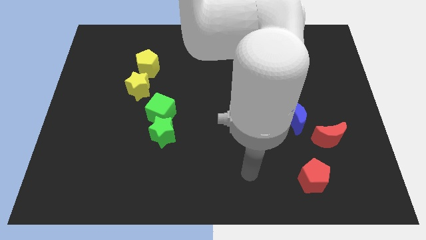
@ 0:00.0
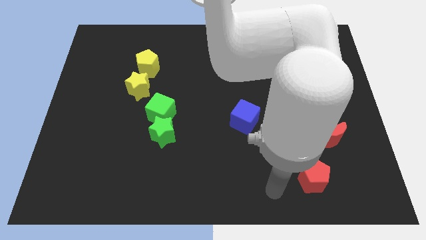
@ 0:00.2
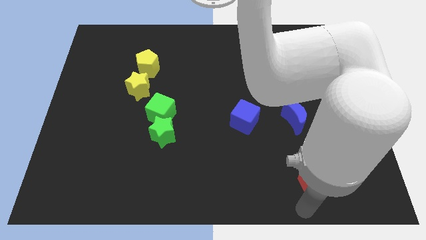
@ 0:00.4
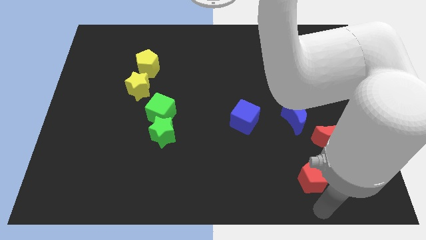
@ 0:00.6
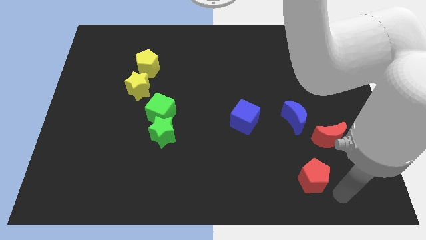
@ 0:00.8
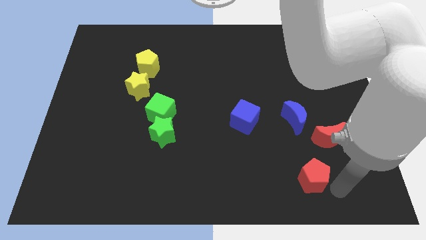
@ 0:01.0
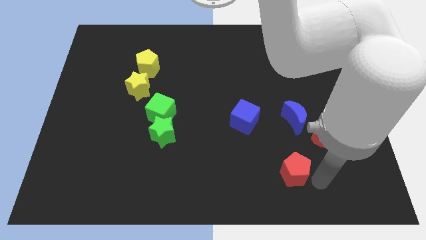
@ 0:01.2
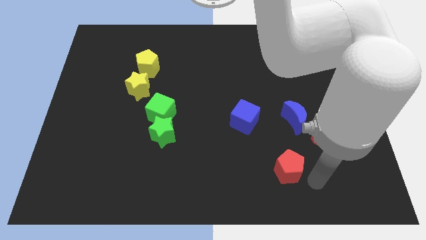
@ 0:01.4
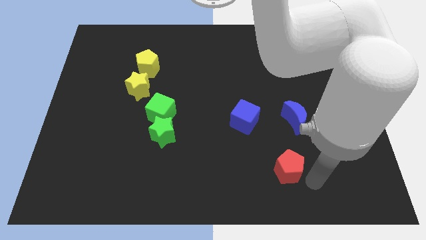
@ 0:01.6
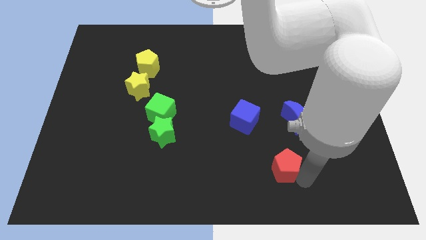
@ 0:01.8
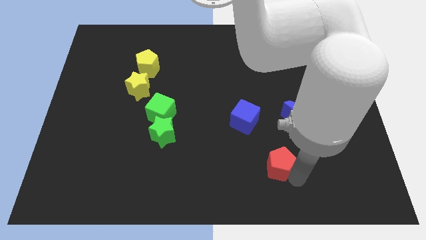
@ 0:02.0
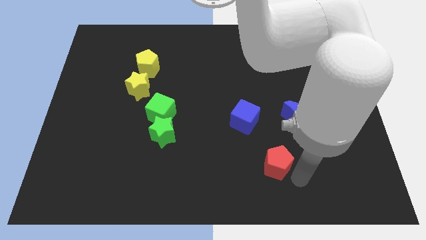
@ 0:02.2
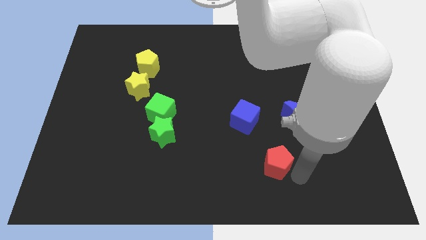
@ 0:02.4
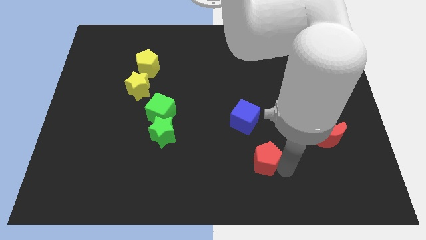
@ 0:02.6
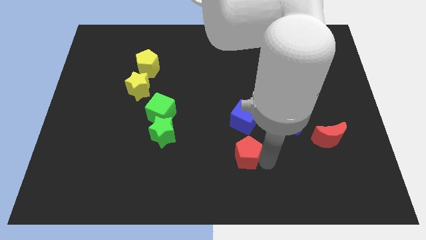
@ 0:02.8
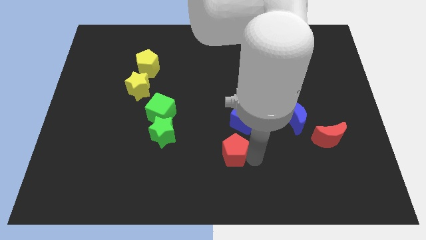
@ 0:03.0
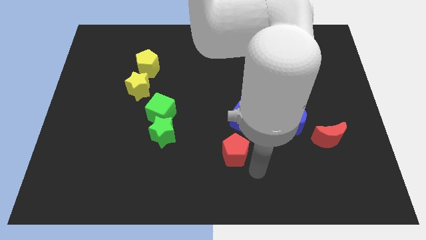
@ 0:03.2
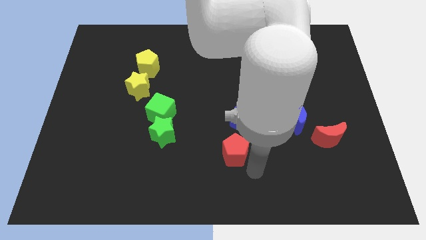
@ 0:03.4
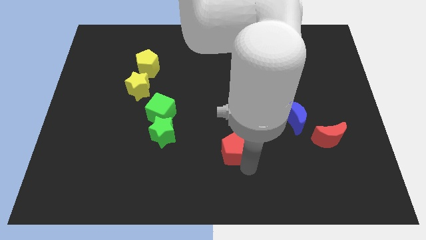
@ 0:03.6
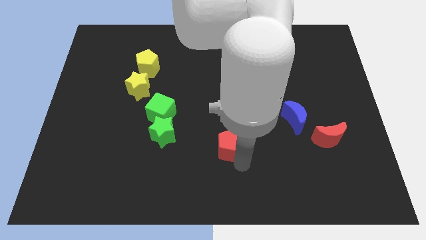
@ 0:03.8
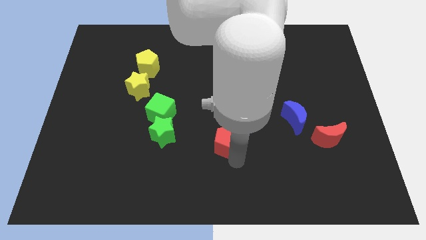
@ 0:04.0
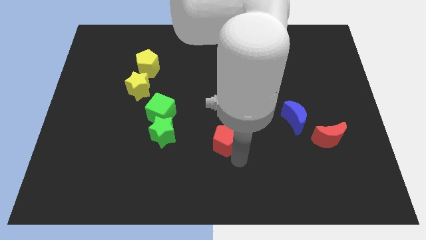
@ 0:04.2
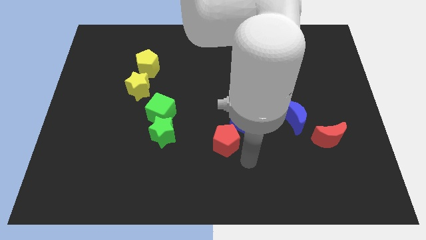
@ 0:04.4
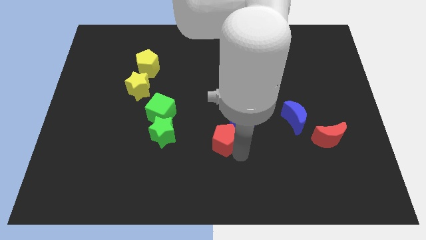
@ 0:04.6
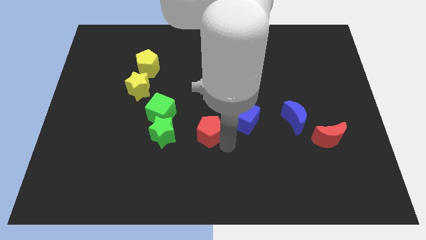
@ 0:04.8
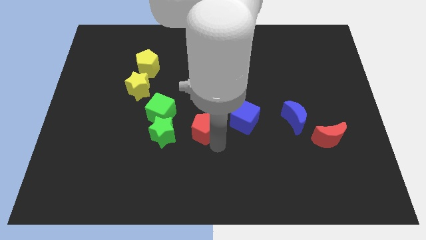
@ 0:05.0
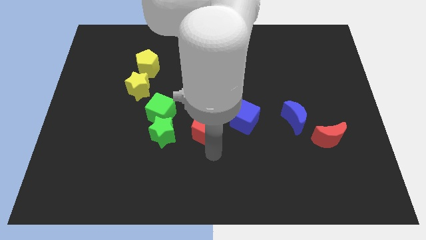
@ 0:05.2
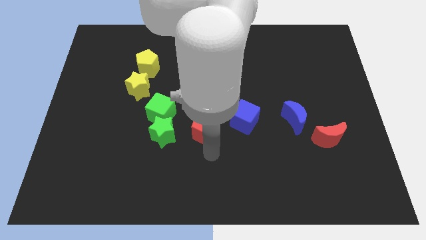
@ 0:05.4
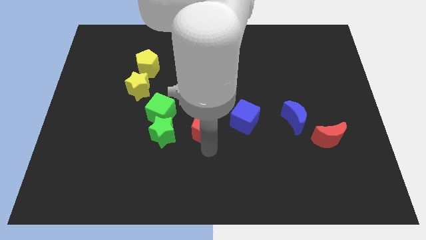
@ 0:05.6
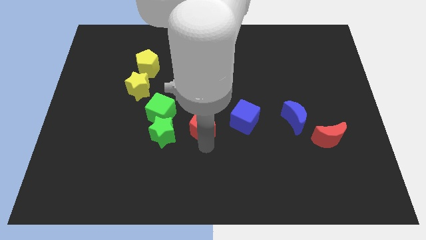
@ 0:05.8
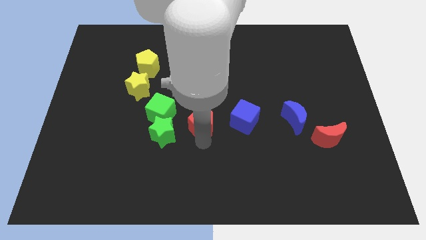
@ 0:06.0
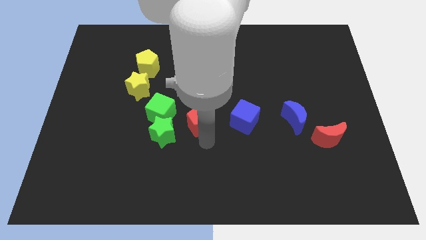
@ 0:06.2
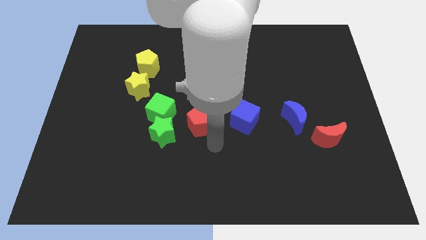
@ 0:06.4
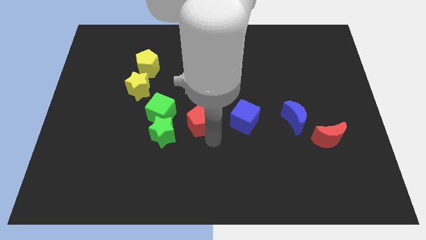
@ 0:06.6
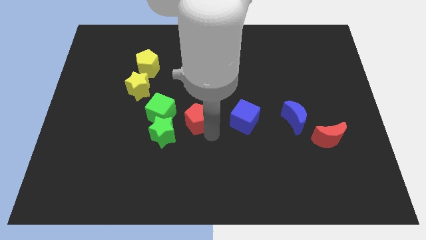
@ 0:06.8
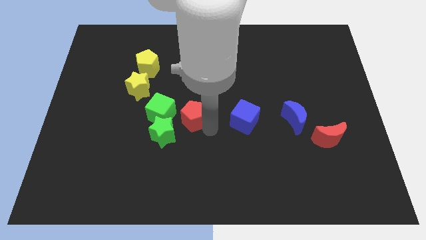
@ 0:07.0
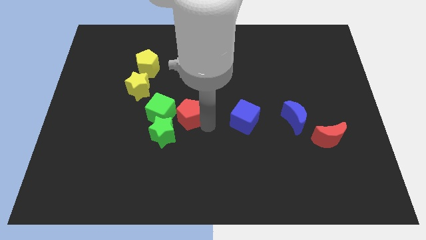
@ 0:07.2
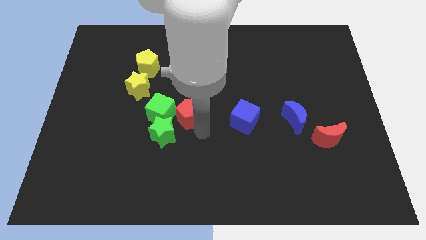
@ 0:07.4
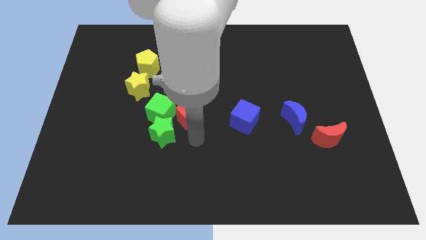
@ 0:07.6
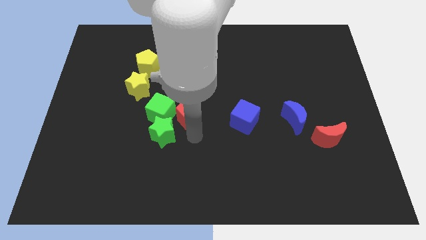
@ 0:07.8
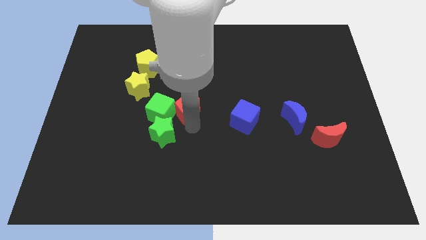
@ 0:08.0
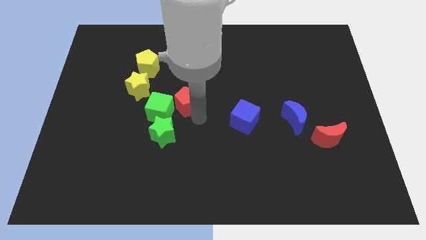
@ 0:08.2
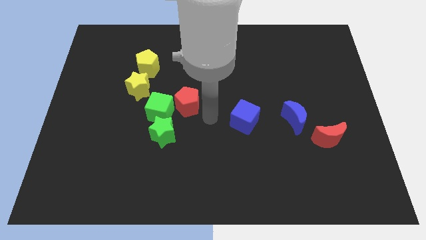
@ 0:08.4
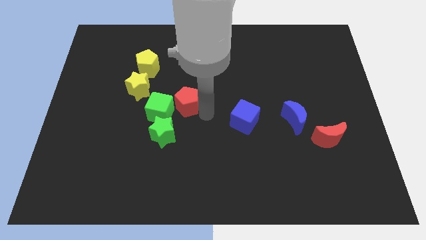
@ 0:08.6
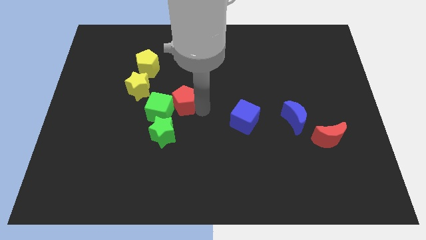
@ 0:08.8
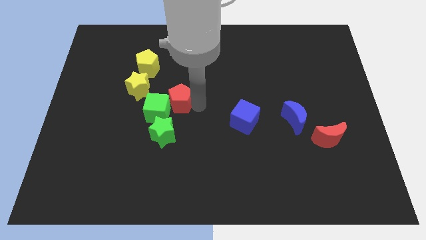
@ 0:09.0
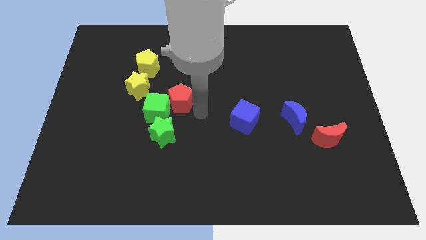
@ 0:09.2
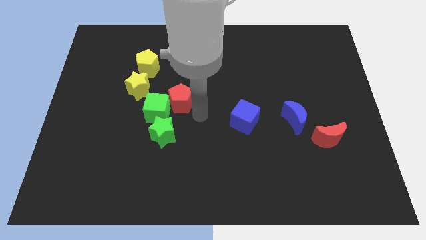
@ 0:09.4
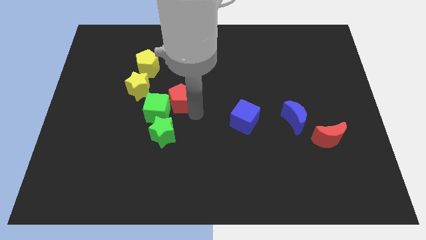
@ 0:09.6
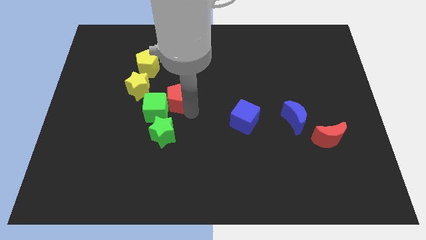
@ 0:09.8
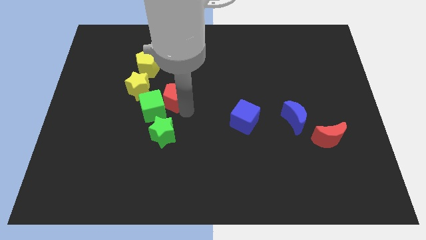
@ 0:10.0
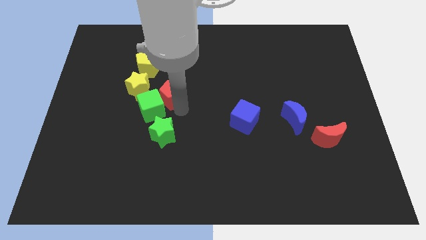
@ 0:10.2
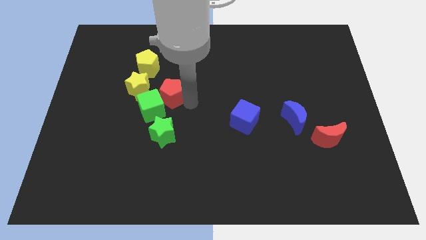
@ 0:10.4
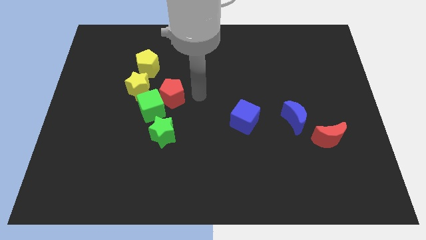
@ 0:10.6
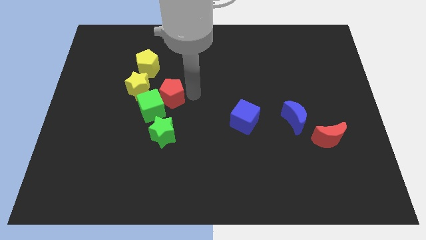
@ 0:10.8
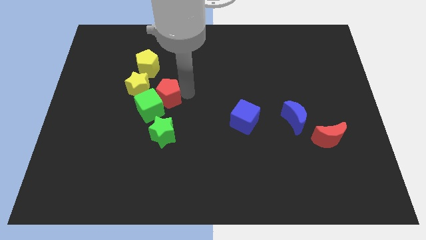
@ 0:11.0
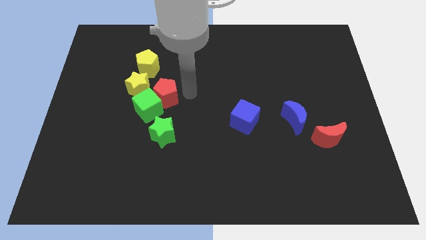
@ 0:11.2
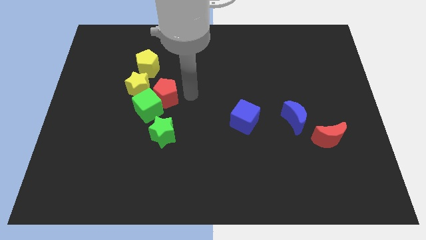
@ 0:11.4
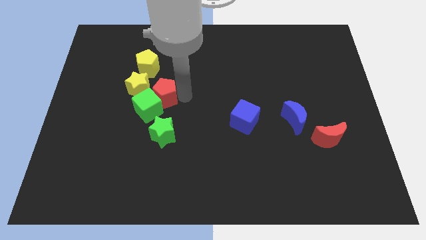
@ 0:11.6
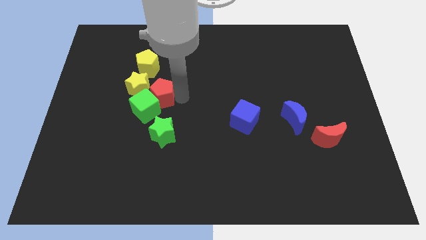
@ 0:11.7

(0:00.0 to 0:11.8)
push the red pentagon to the bottom side of the yellow pentagon
